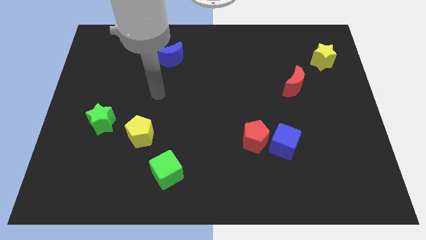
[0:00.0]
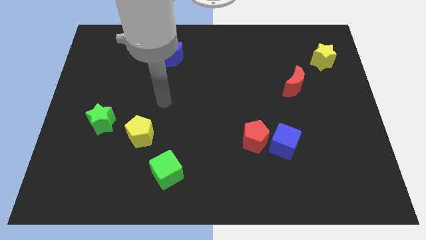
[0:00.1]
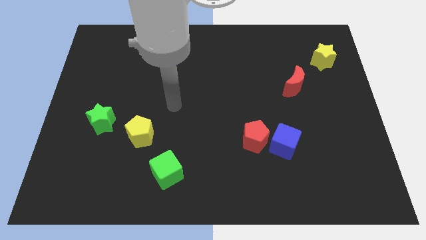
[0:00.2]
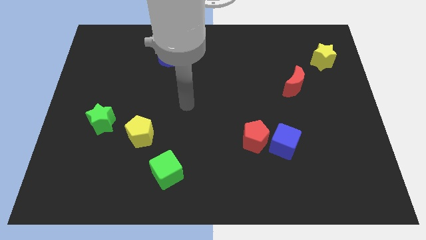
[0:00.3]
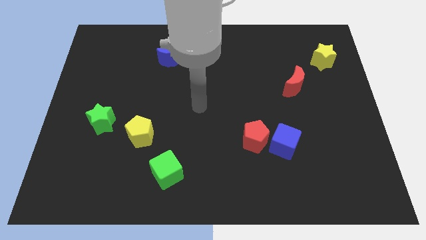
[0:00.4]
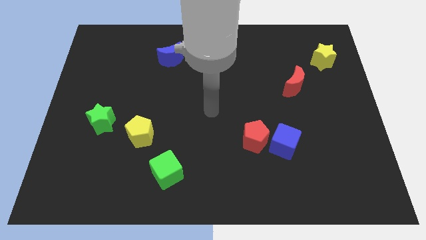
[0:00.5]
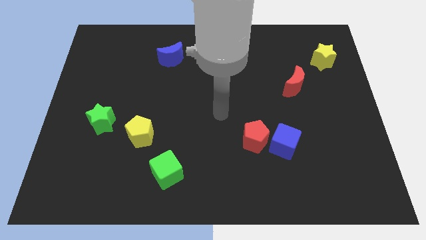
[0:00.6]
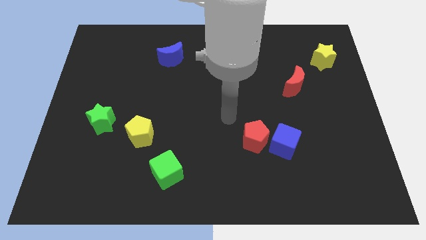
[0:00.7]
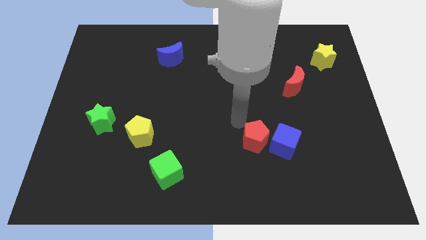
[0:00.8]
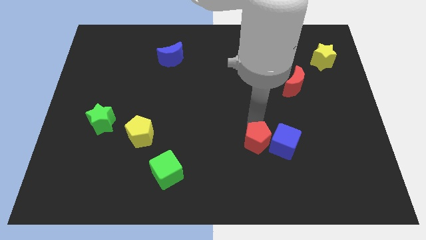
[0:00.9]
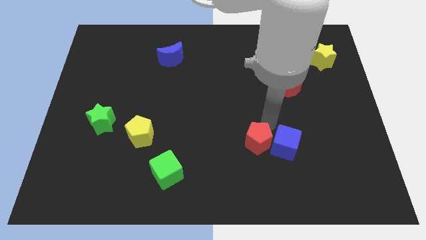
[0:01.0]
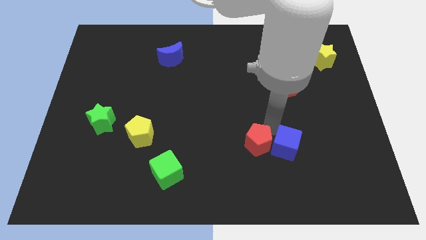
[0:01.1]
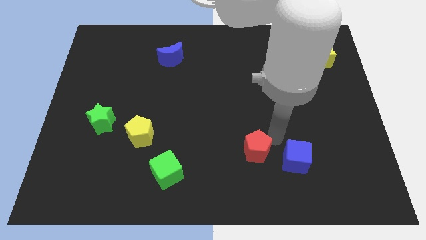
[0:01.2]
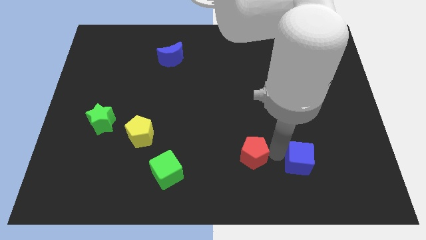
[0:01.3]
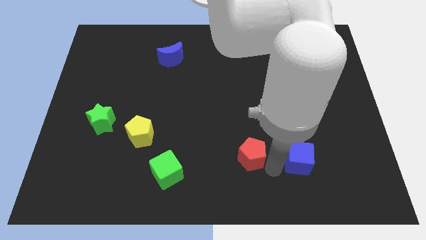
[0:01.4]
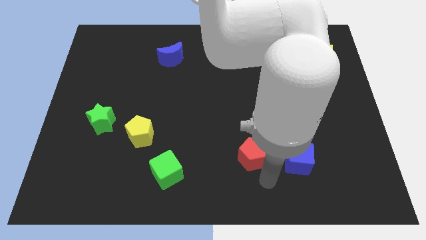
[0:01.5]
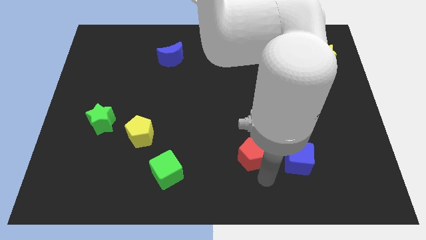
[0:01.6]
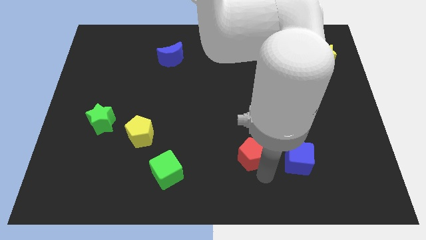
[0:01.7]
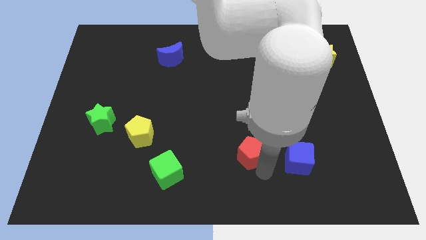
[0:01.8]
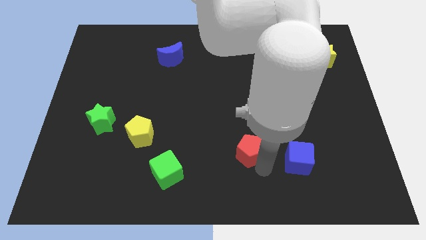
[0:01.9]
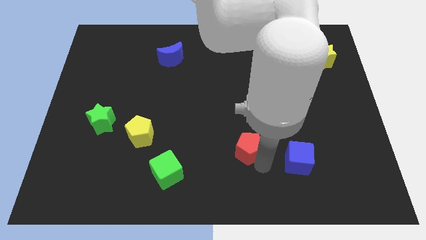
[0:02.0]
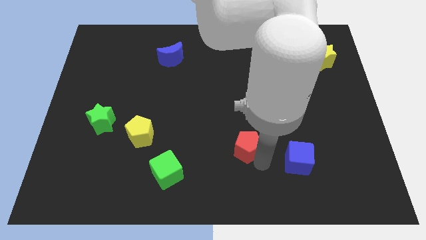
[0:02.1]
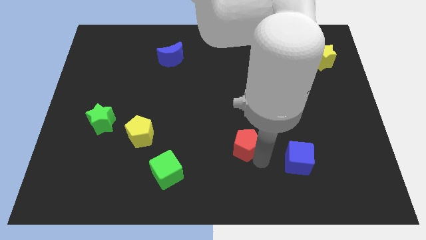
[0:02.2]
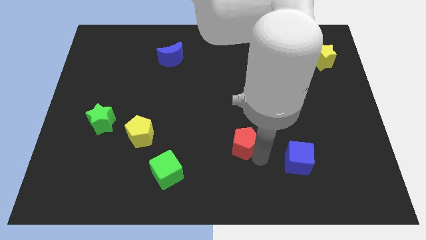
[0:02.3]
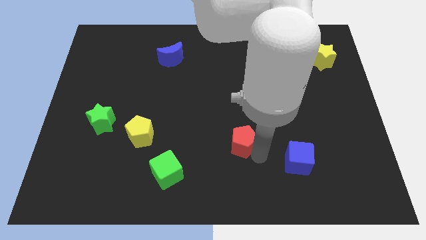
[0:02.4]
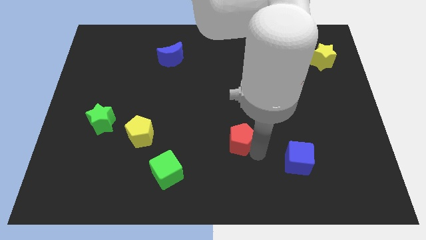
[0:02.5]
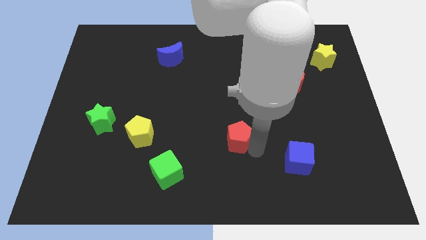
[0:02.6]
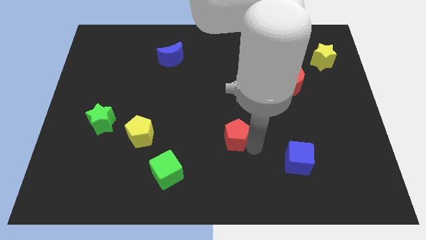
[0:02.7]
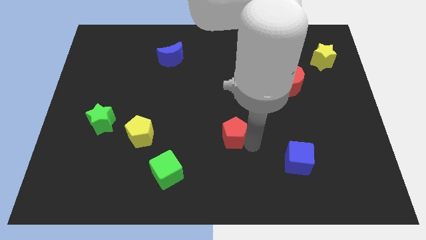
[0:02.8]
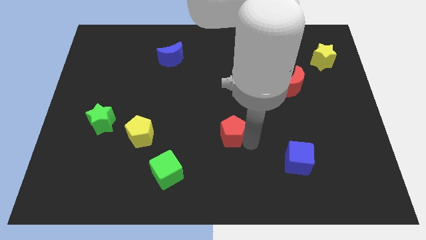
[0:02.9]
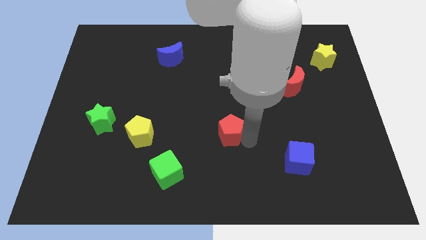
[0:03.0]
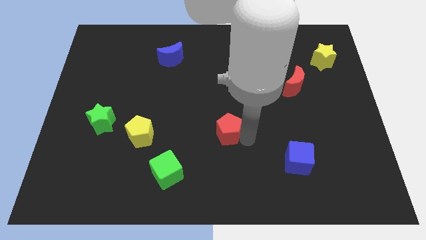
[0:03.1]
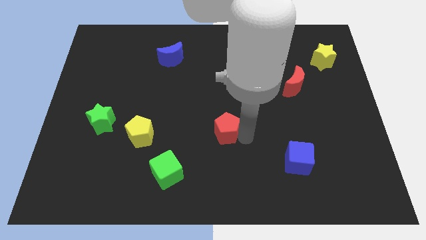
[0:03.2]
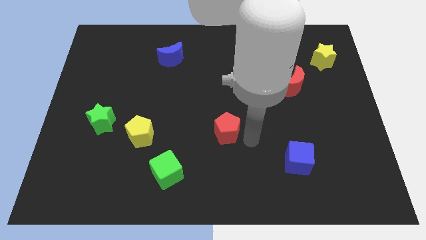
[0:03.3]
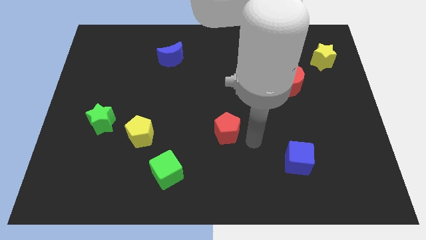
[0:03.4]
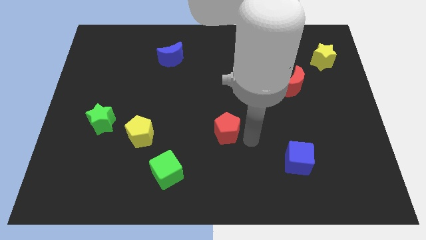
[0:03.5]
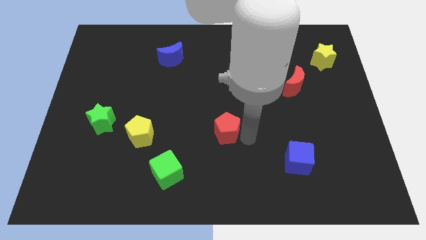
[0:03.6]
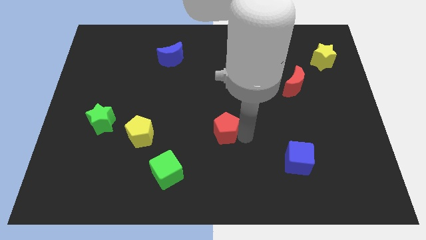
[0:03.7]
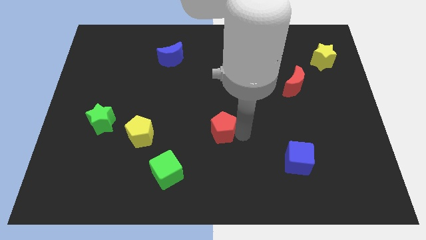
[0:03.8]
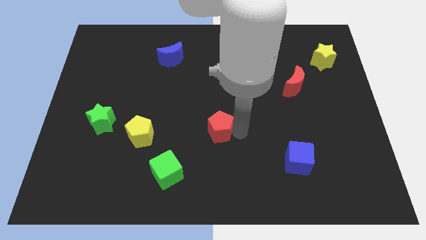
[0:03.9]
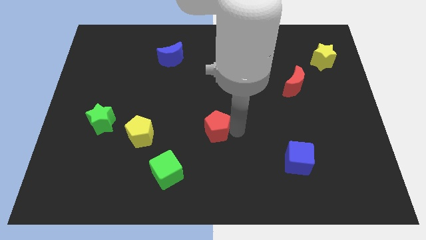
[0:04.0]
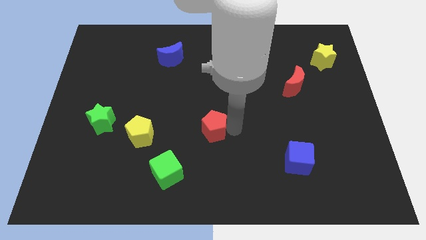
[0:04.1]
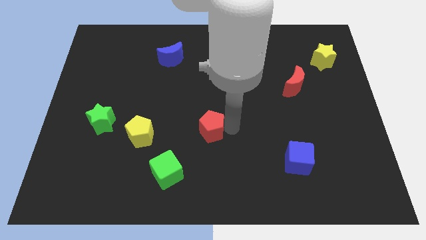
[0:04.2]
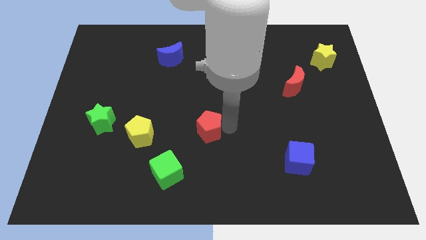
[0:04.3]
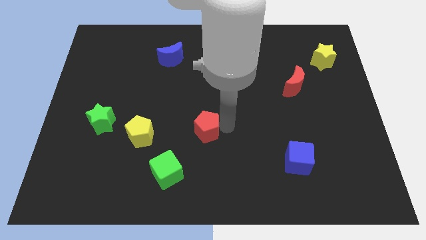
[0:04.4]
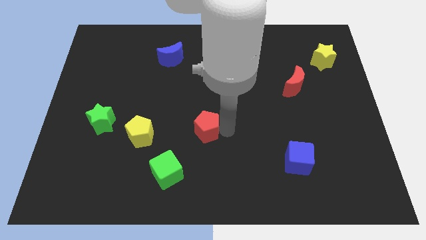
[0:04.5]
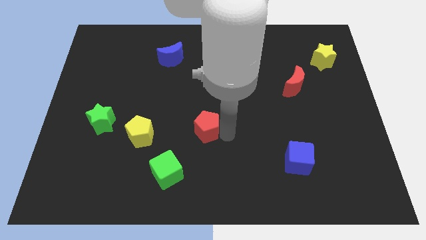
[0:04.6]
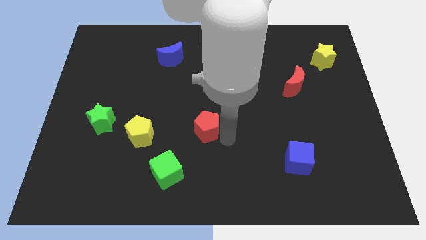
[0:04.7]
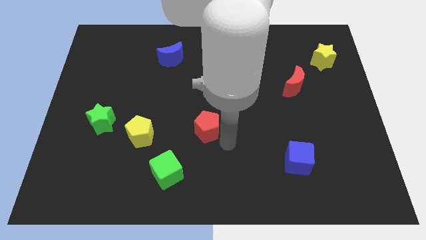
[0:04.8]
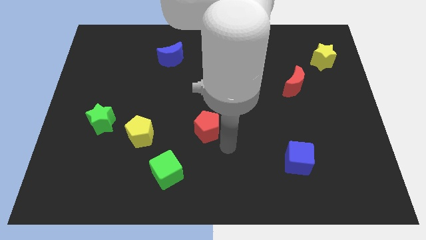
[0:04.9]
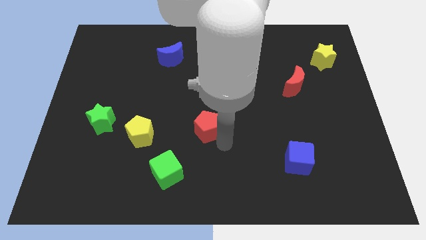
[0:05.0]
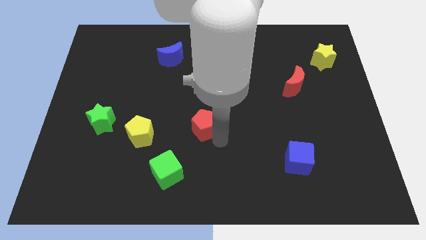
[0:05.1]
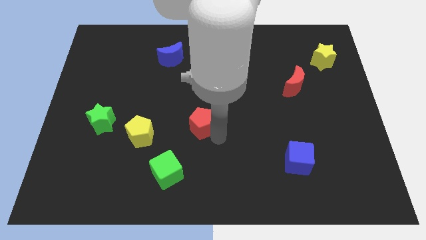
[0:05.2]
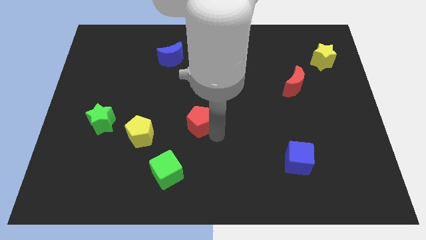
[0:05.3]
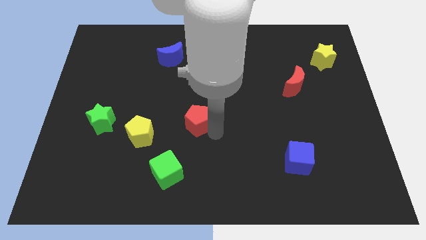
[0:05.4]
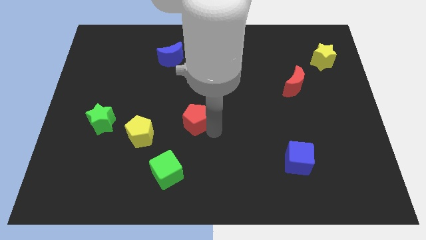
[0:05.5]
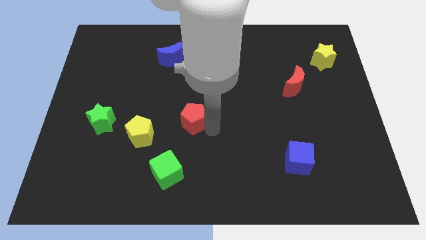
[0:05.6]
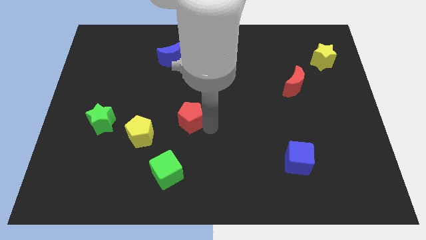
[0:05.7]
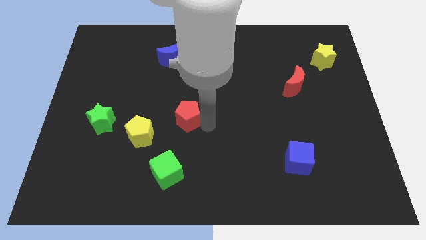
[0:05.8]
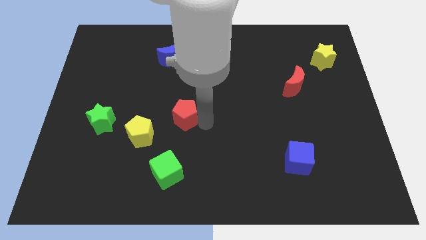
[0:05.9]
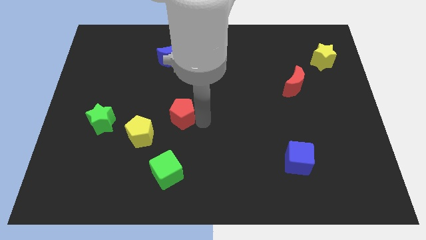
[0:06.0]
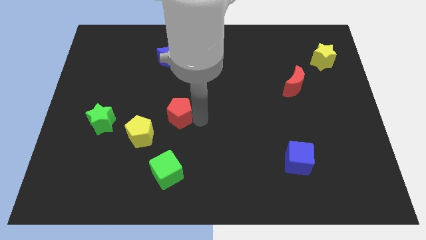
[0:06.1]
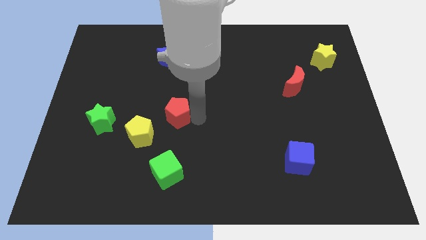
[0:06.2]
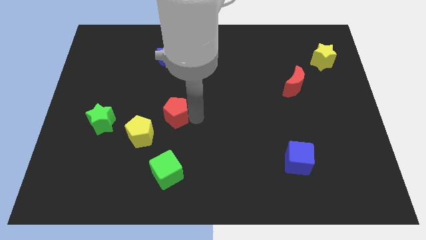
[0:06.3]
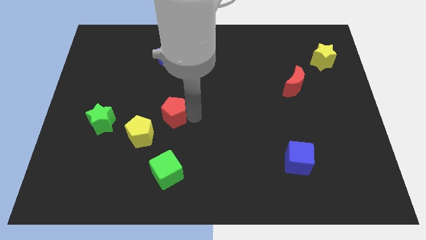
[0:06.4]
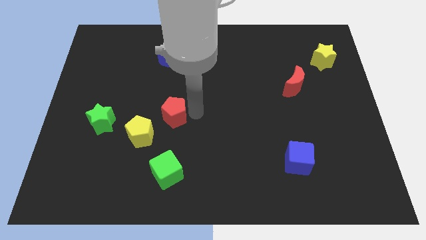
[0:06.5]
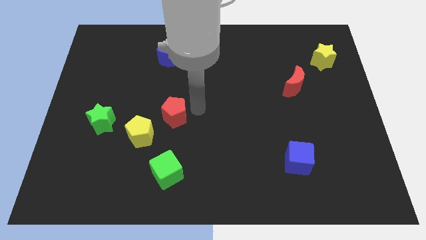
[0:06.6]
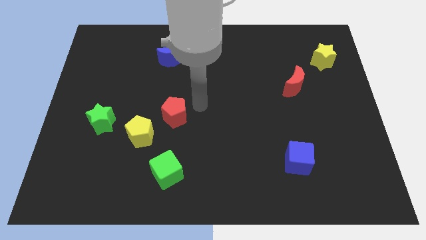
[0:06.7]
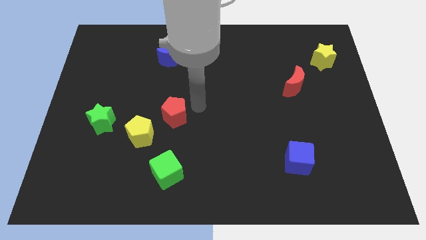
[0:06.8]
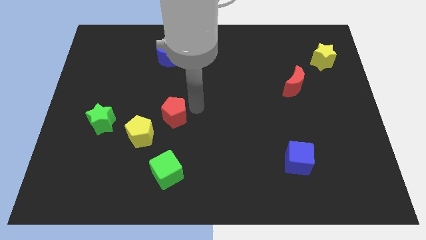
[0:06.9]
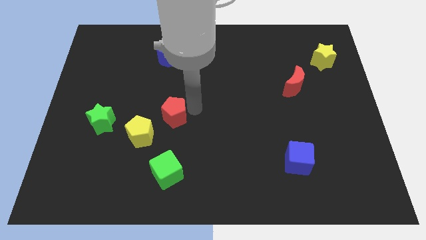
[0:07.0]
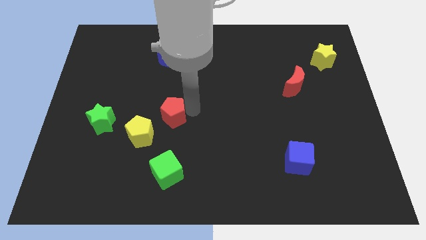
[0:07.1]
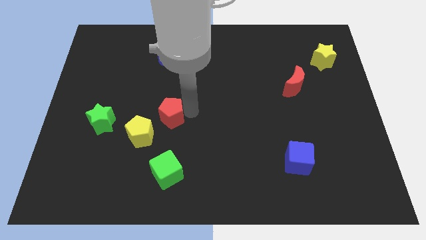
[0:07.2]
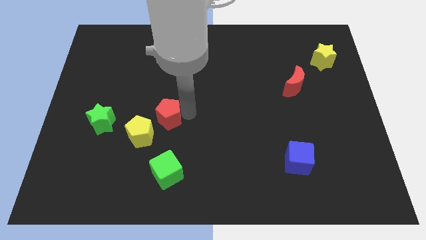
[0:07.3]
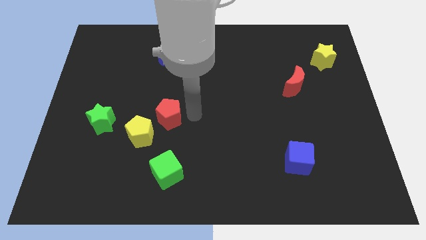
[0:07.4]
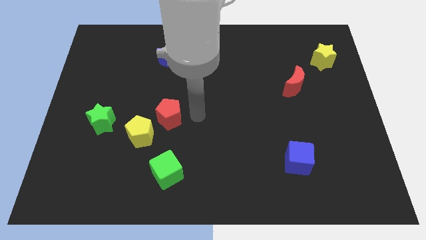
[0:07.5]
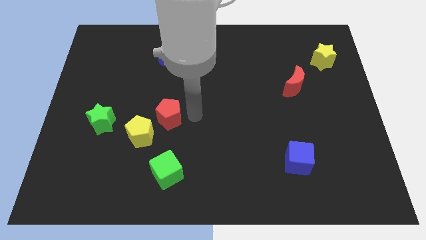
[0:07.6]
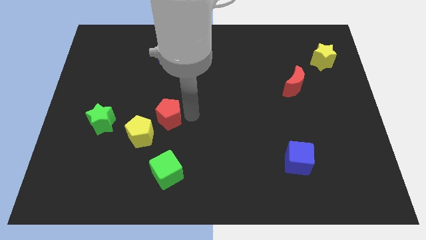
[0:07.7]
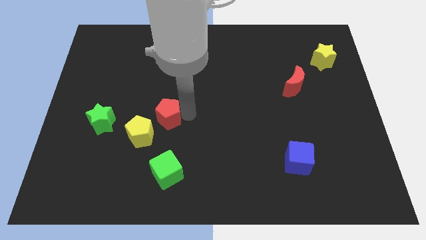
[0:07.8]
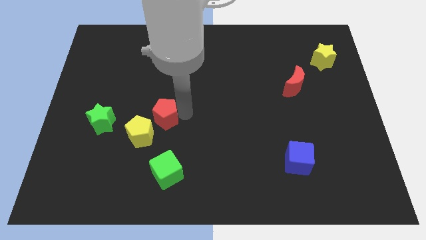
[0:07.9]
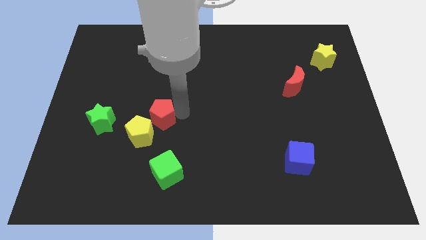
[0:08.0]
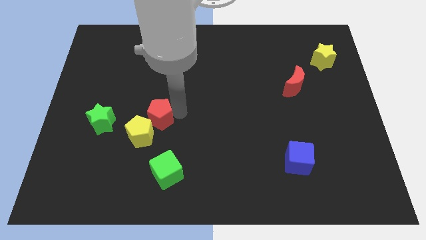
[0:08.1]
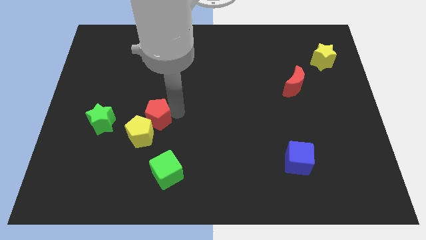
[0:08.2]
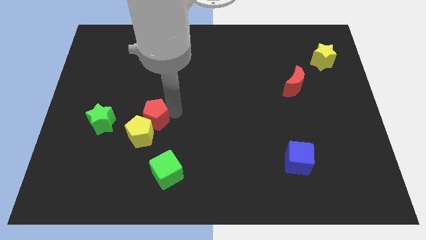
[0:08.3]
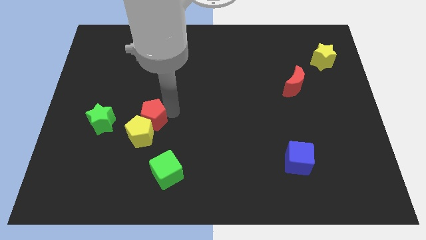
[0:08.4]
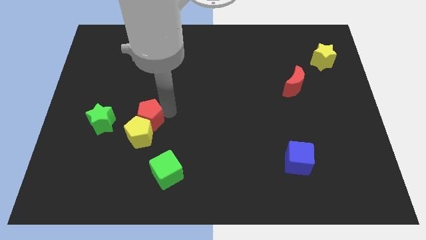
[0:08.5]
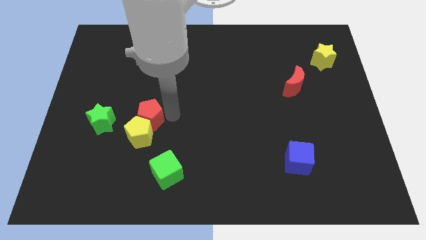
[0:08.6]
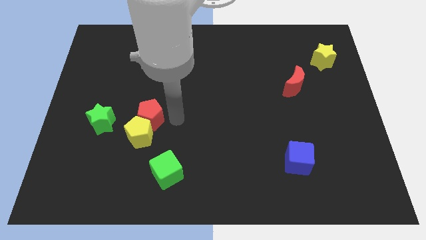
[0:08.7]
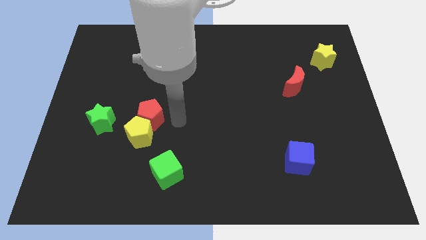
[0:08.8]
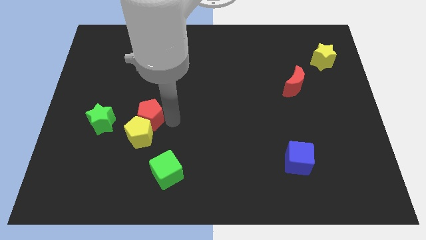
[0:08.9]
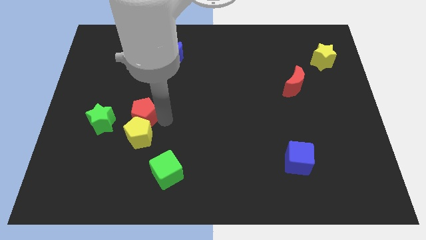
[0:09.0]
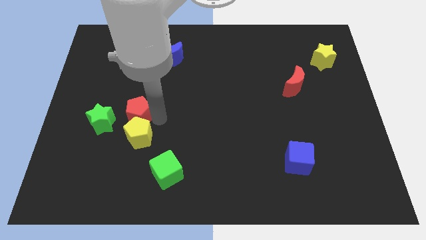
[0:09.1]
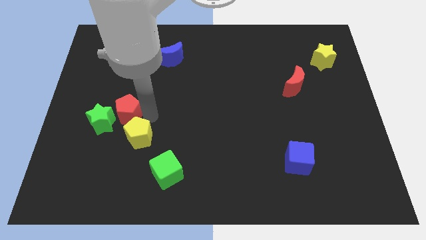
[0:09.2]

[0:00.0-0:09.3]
push the red pentagon close to the green star
